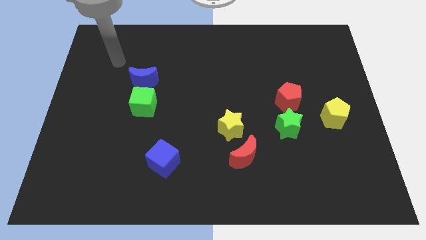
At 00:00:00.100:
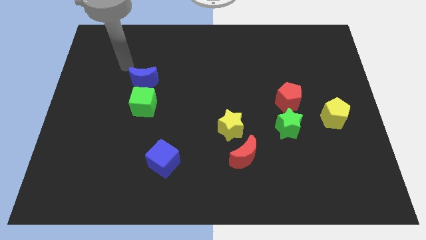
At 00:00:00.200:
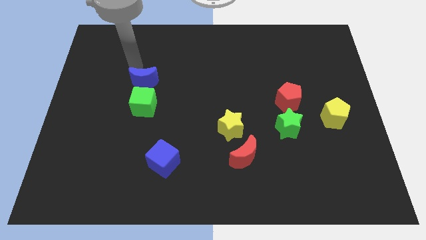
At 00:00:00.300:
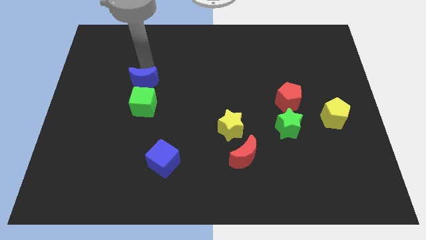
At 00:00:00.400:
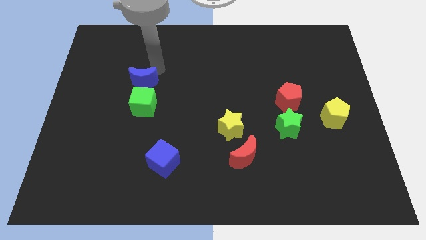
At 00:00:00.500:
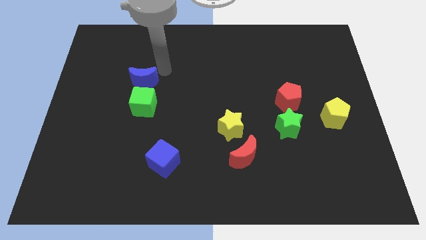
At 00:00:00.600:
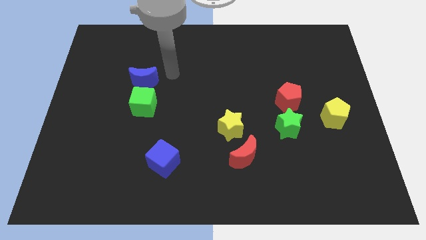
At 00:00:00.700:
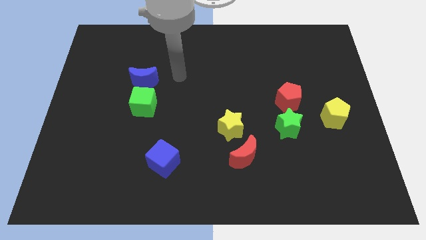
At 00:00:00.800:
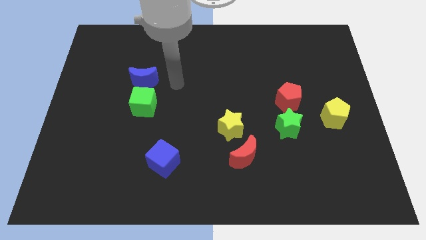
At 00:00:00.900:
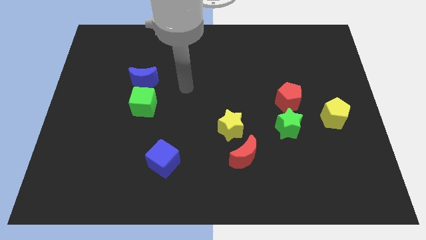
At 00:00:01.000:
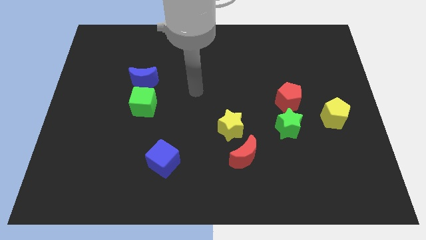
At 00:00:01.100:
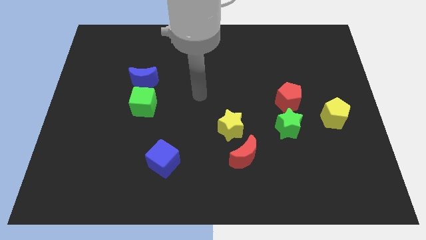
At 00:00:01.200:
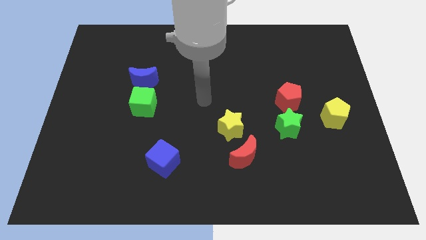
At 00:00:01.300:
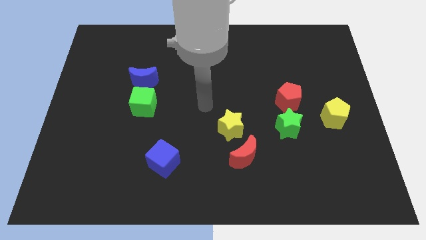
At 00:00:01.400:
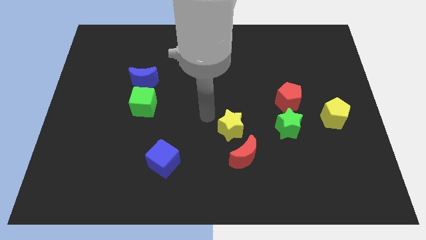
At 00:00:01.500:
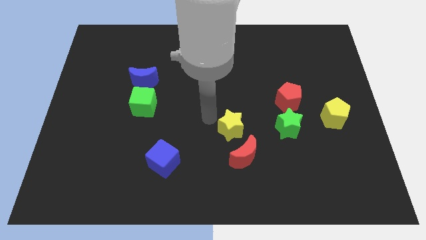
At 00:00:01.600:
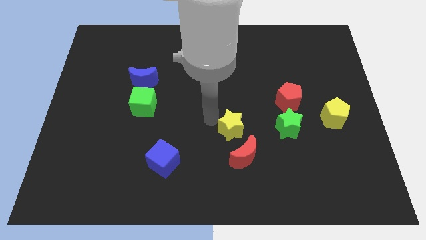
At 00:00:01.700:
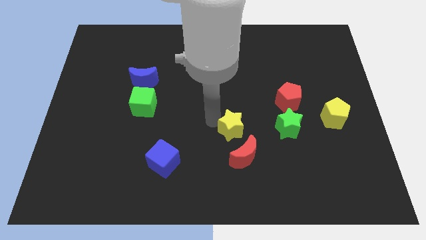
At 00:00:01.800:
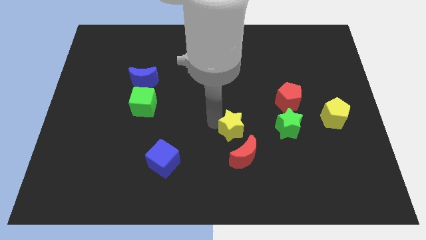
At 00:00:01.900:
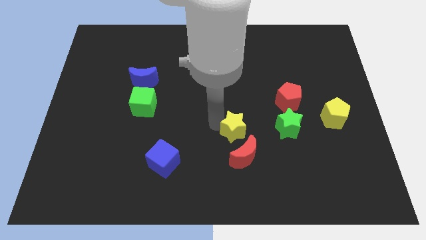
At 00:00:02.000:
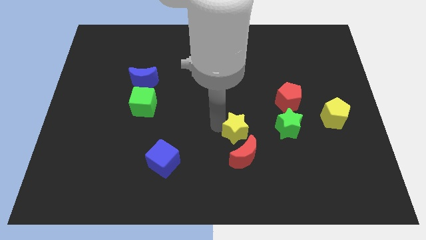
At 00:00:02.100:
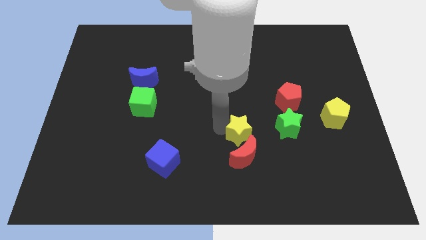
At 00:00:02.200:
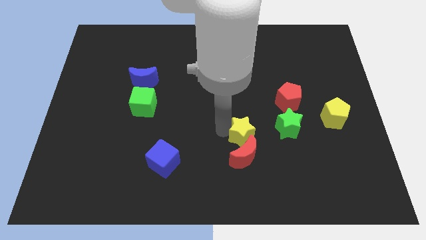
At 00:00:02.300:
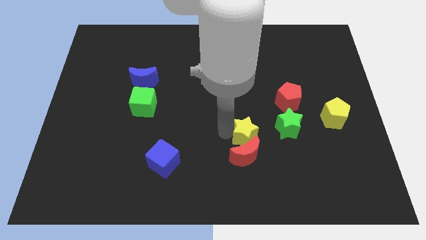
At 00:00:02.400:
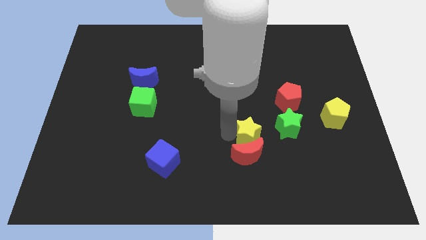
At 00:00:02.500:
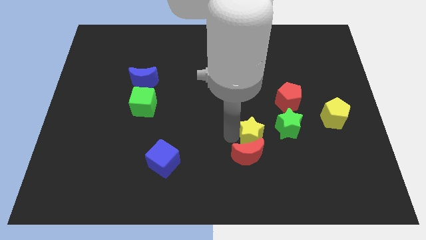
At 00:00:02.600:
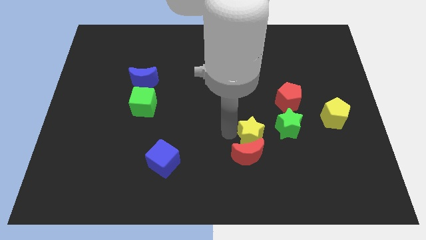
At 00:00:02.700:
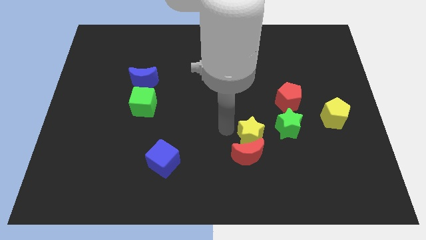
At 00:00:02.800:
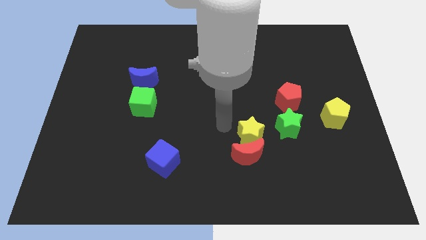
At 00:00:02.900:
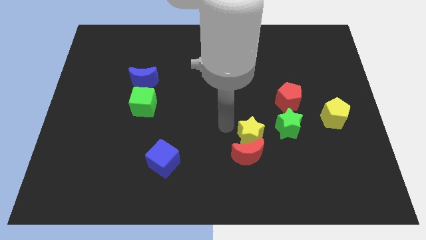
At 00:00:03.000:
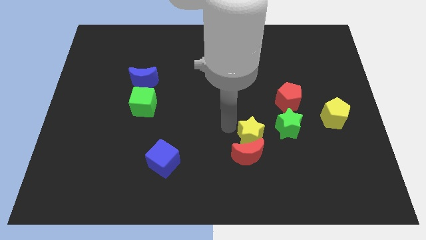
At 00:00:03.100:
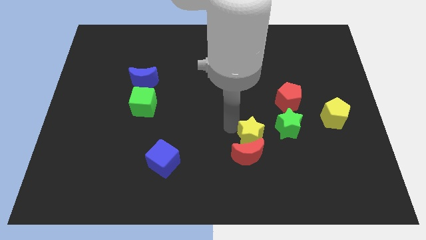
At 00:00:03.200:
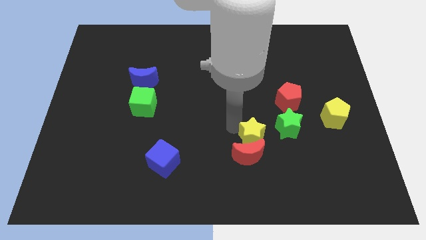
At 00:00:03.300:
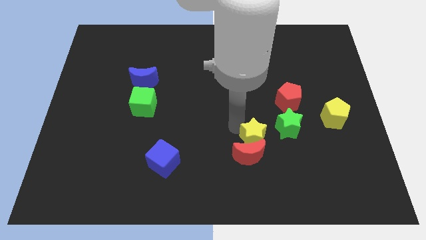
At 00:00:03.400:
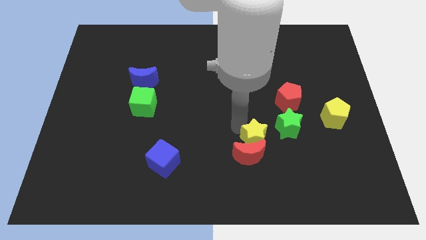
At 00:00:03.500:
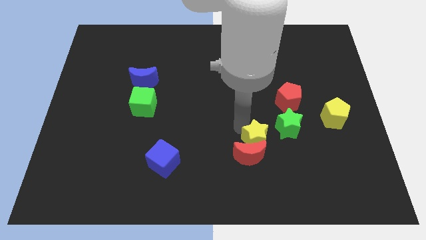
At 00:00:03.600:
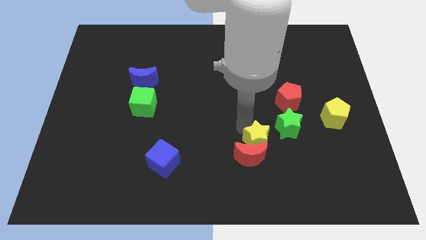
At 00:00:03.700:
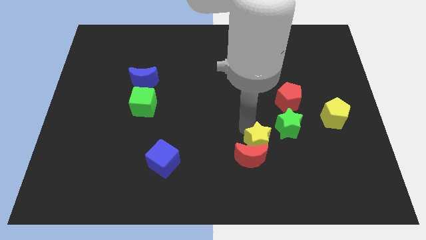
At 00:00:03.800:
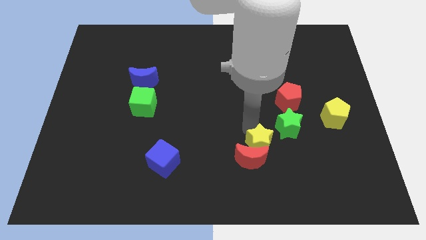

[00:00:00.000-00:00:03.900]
slide the yellow star a little bit downwards and to the right diagonally

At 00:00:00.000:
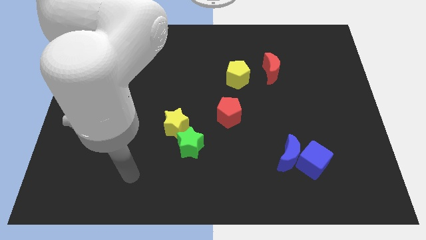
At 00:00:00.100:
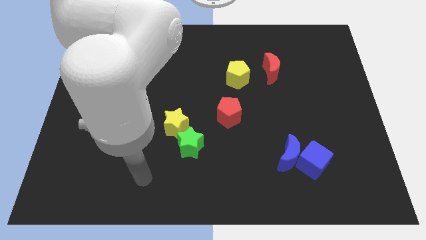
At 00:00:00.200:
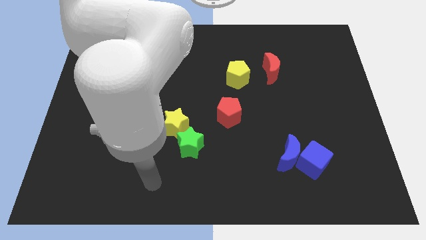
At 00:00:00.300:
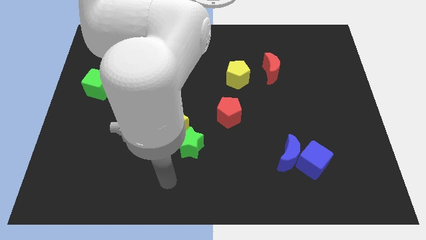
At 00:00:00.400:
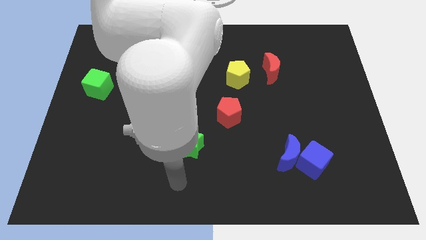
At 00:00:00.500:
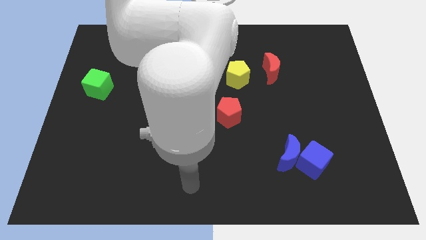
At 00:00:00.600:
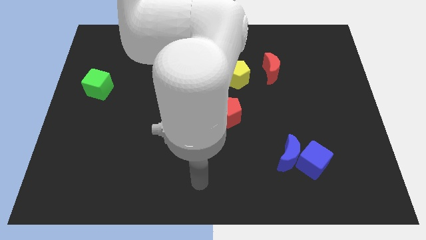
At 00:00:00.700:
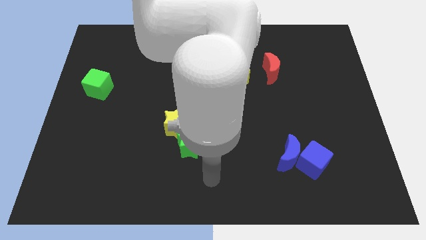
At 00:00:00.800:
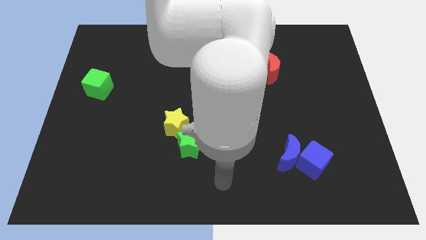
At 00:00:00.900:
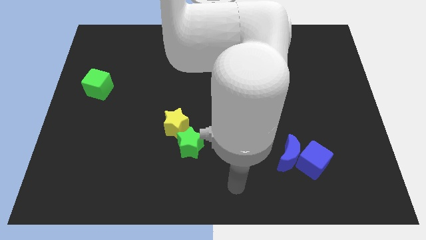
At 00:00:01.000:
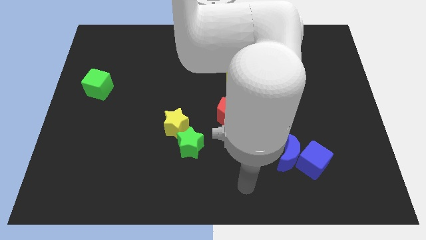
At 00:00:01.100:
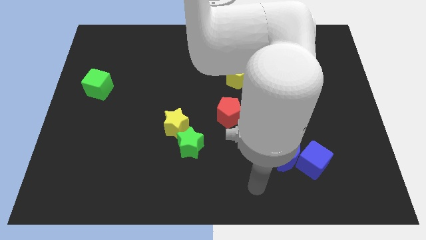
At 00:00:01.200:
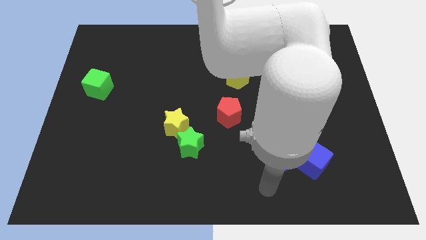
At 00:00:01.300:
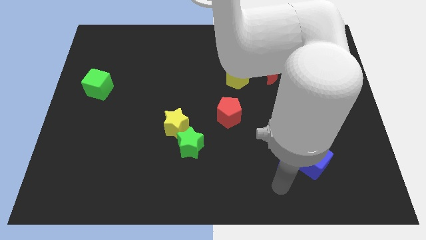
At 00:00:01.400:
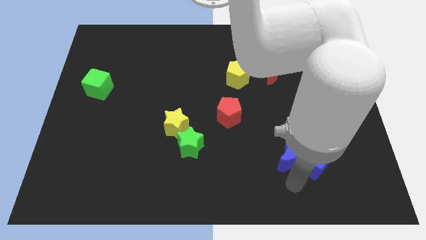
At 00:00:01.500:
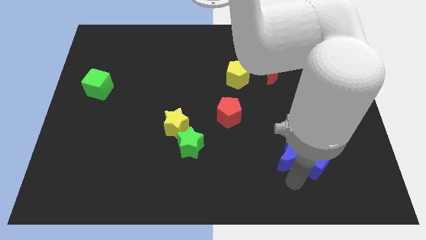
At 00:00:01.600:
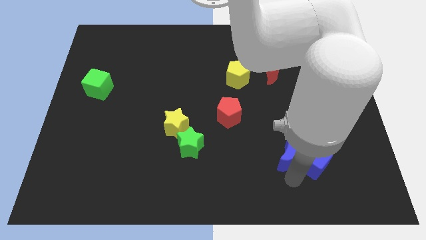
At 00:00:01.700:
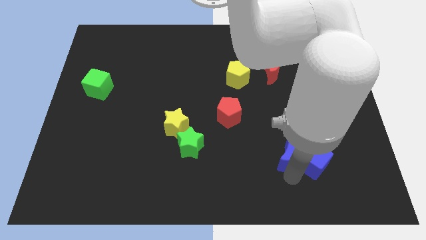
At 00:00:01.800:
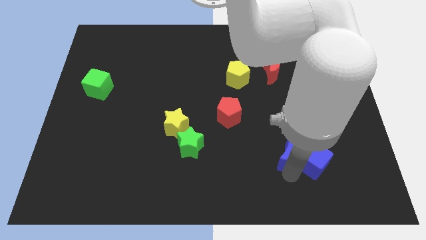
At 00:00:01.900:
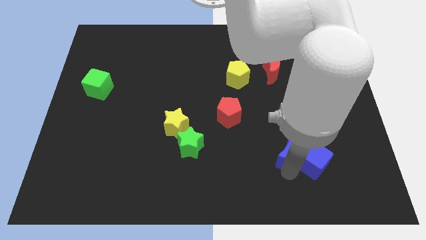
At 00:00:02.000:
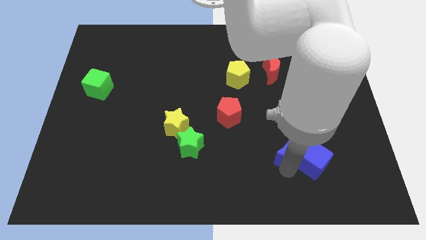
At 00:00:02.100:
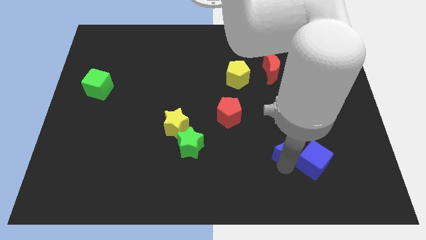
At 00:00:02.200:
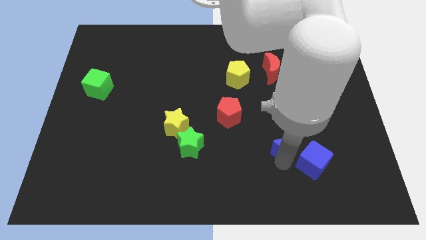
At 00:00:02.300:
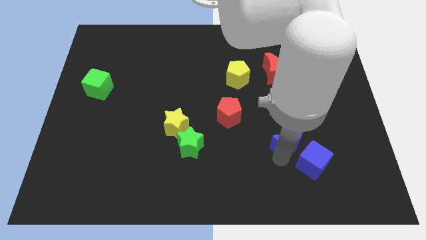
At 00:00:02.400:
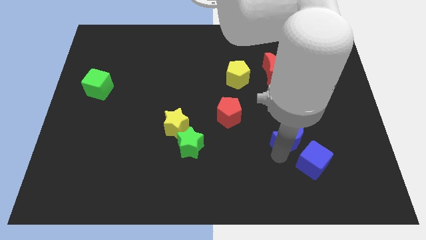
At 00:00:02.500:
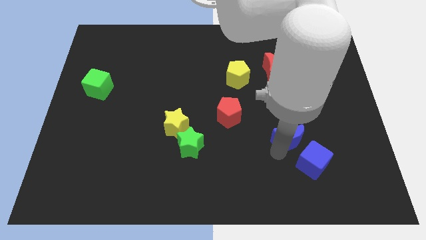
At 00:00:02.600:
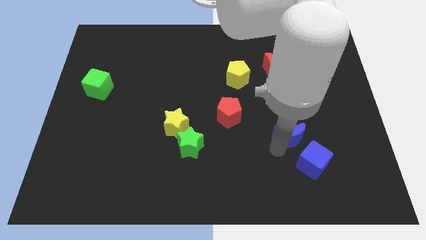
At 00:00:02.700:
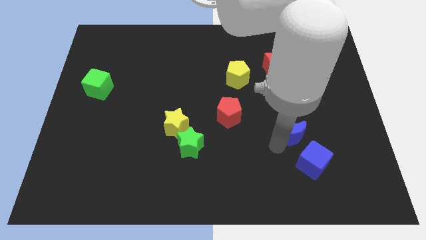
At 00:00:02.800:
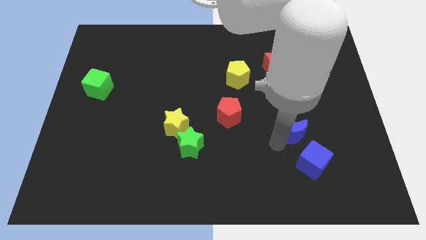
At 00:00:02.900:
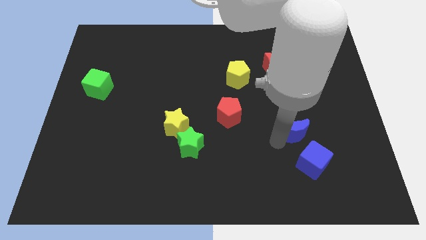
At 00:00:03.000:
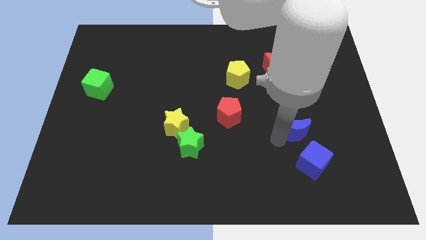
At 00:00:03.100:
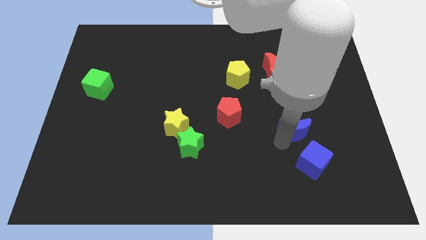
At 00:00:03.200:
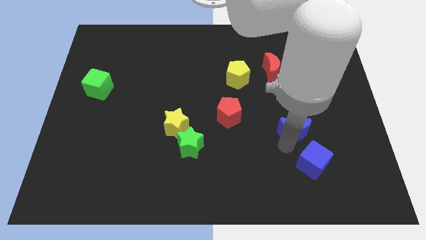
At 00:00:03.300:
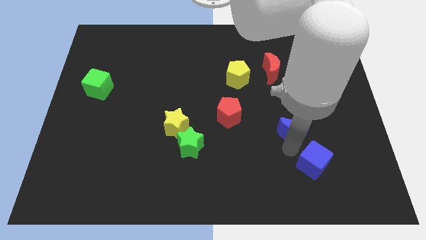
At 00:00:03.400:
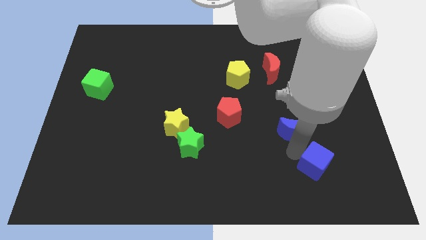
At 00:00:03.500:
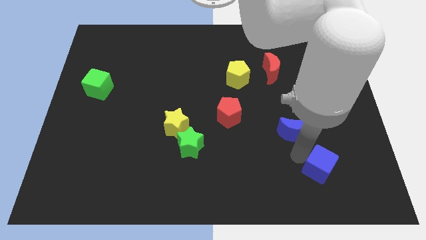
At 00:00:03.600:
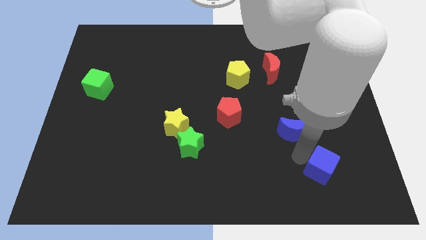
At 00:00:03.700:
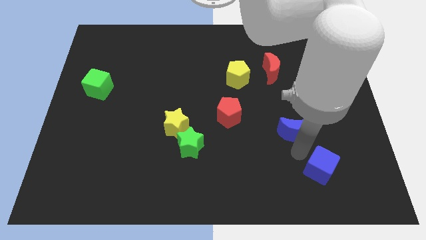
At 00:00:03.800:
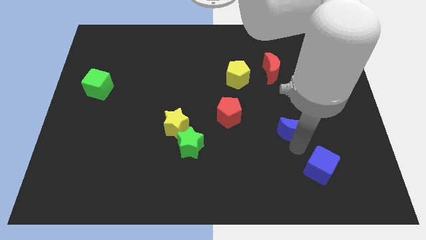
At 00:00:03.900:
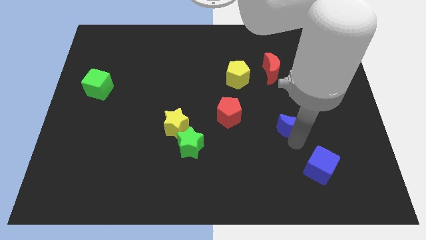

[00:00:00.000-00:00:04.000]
move the blue moon a little upwards
